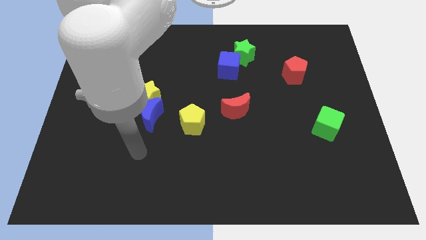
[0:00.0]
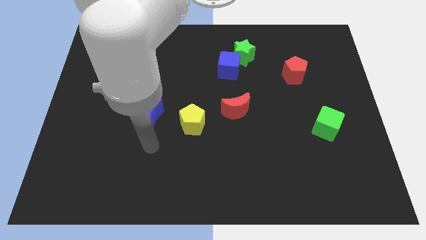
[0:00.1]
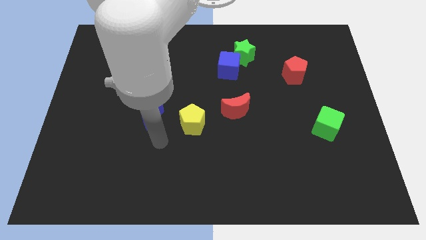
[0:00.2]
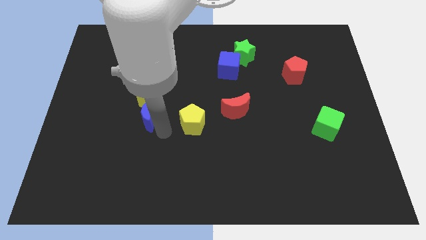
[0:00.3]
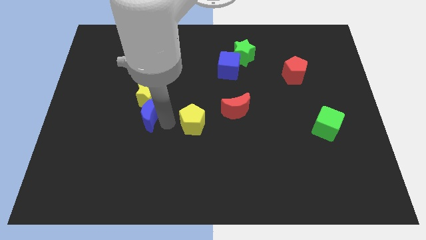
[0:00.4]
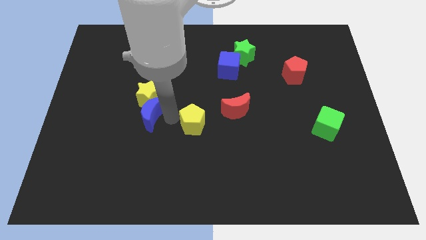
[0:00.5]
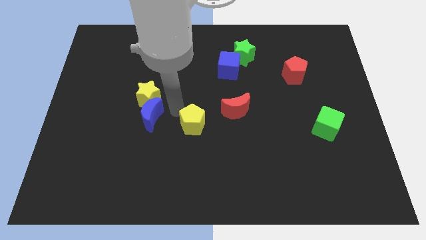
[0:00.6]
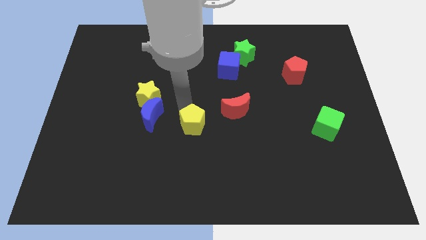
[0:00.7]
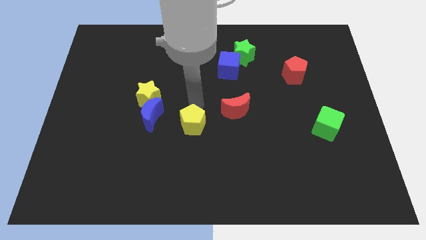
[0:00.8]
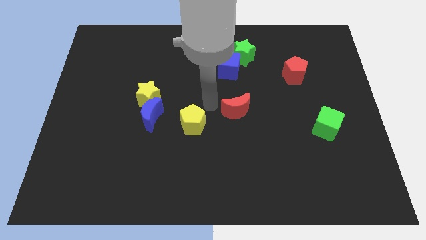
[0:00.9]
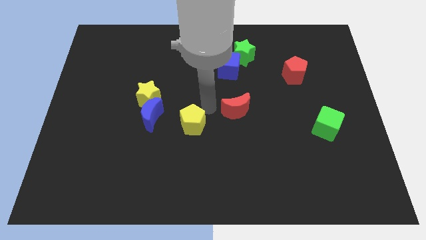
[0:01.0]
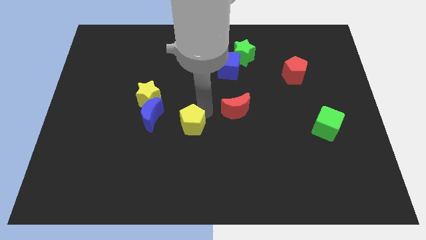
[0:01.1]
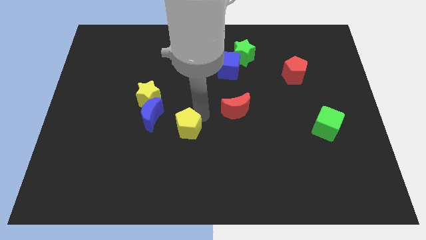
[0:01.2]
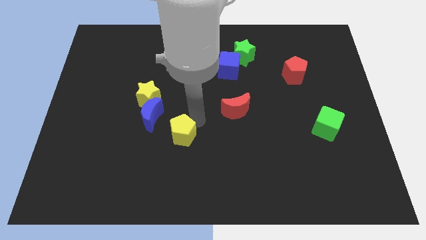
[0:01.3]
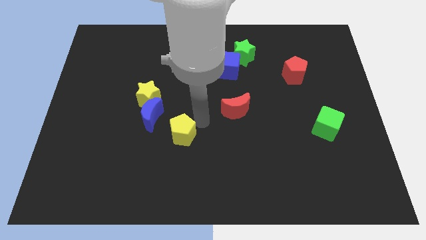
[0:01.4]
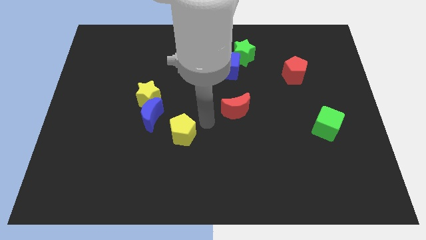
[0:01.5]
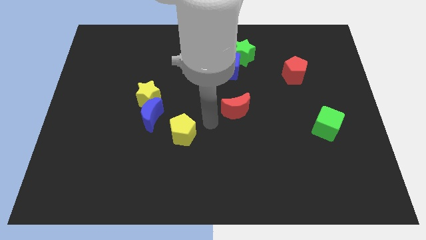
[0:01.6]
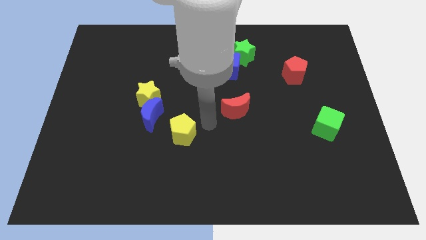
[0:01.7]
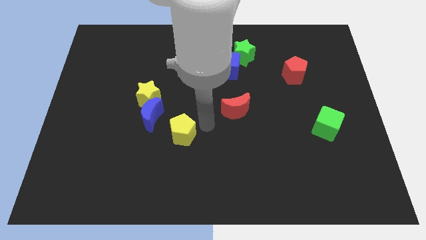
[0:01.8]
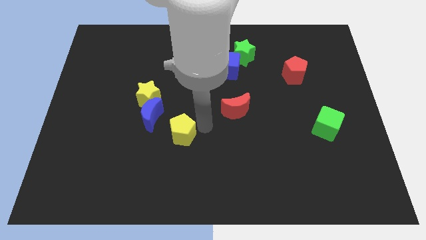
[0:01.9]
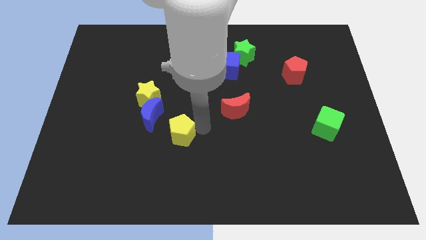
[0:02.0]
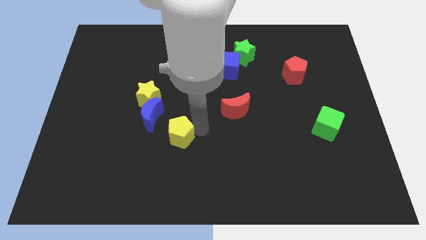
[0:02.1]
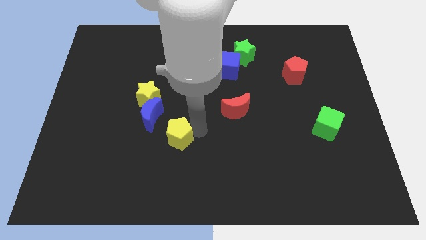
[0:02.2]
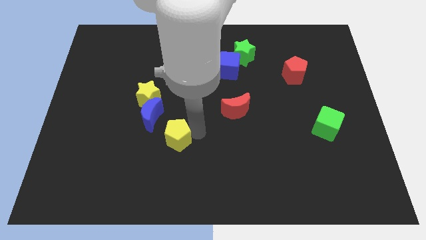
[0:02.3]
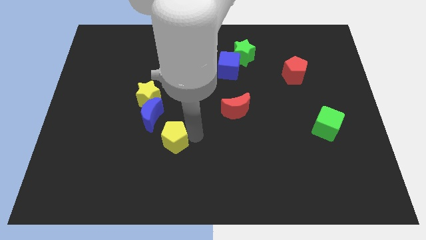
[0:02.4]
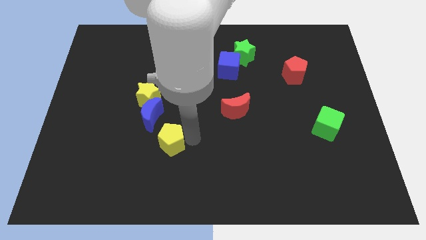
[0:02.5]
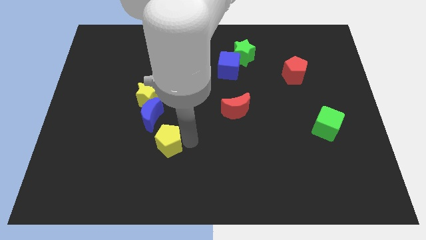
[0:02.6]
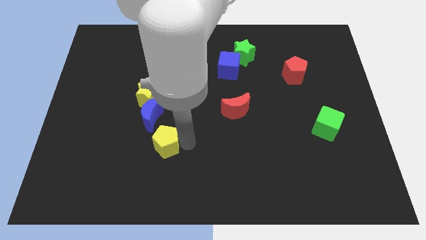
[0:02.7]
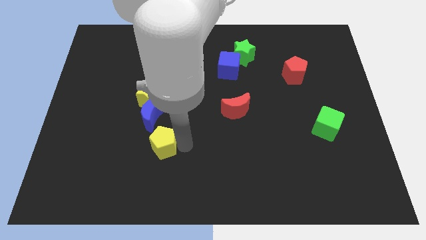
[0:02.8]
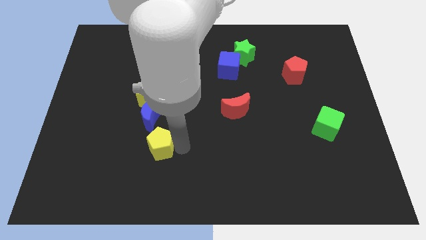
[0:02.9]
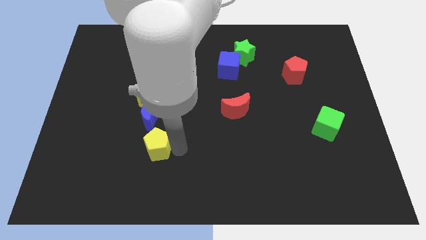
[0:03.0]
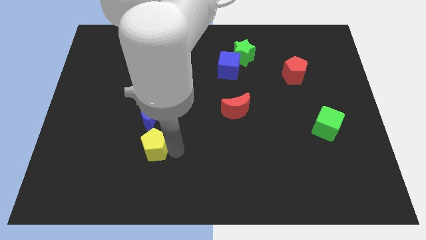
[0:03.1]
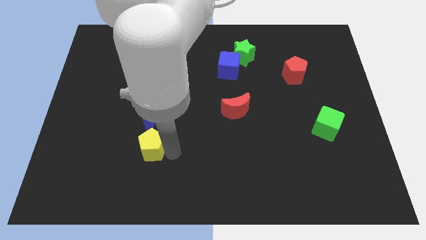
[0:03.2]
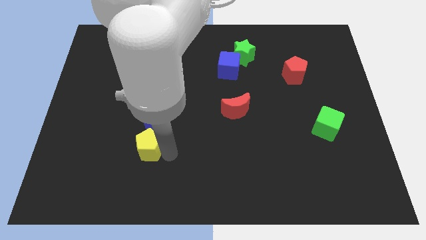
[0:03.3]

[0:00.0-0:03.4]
push the yellow pentagon a little bit to the left

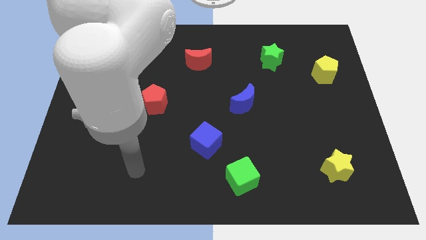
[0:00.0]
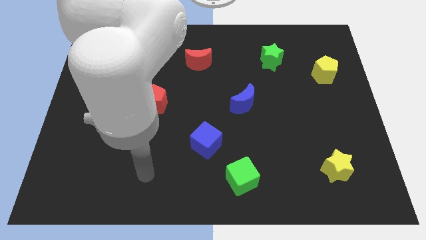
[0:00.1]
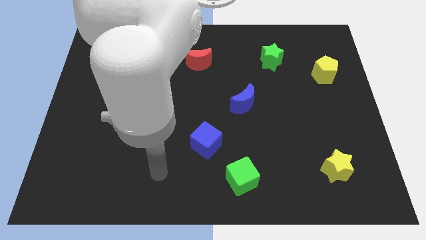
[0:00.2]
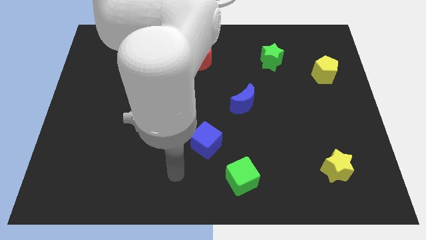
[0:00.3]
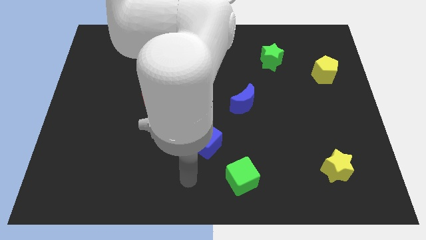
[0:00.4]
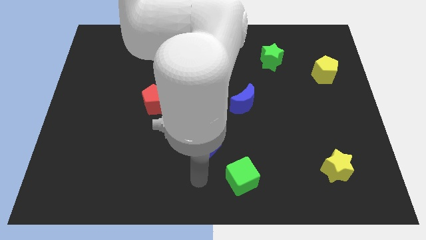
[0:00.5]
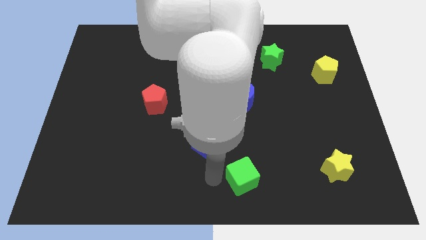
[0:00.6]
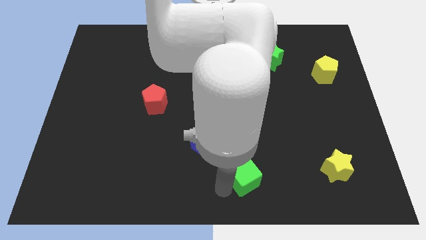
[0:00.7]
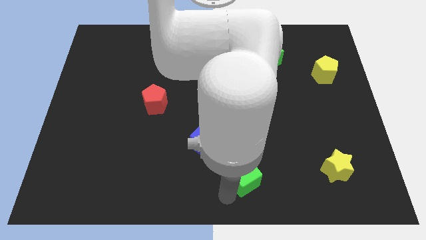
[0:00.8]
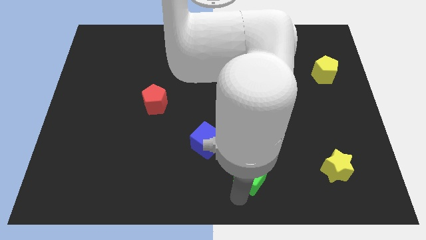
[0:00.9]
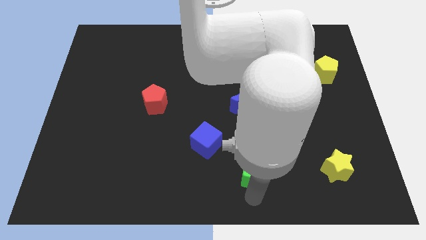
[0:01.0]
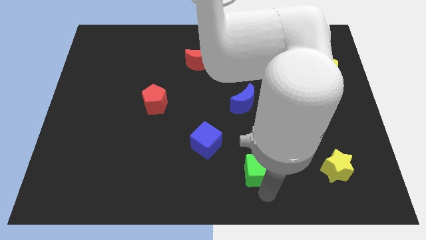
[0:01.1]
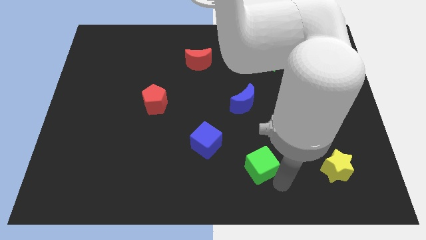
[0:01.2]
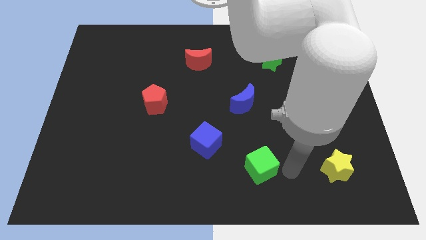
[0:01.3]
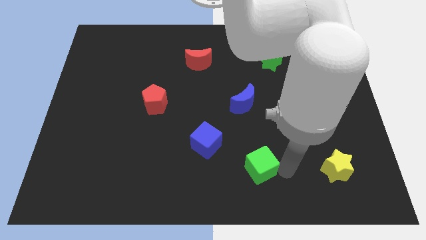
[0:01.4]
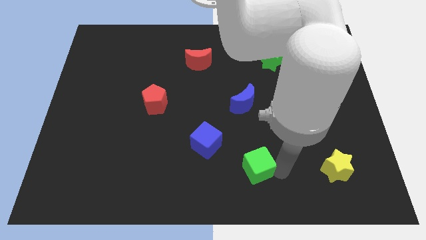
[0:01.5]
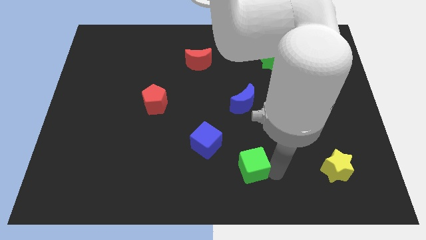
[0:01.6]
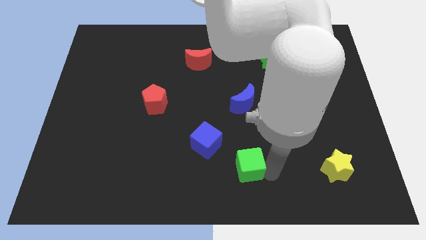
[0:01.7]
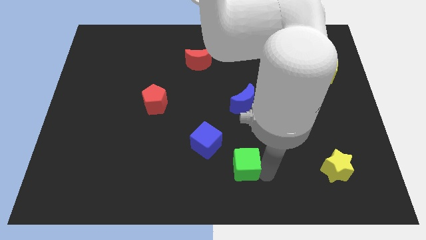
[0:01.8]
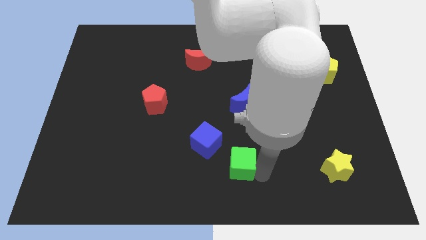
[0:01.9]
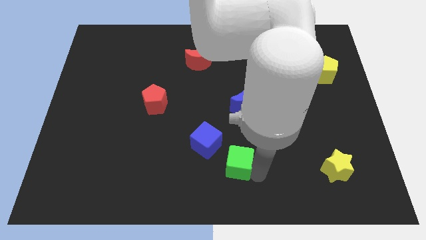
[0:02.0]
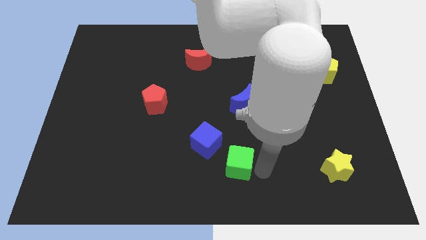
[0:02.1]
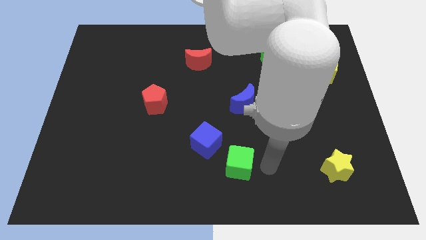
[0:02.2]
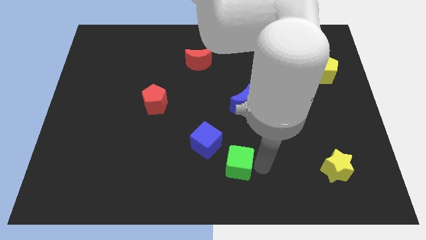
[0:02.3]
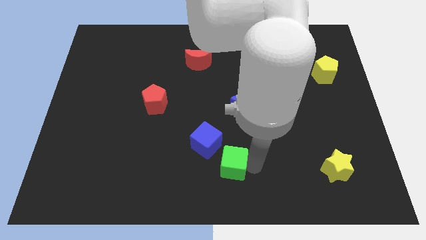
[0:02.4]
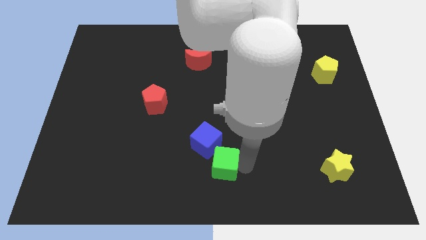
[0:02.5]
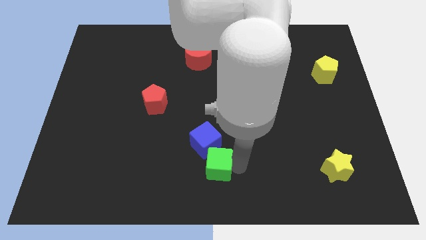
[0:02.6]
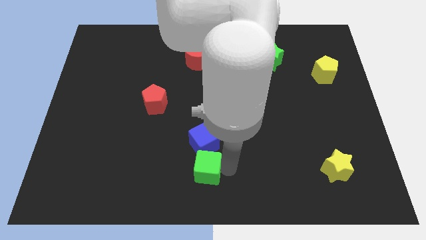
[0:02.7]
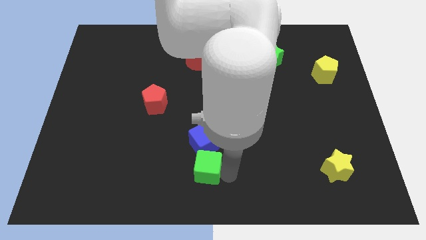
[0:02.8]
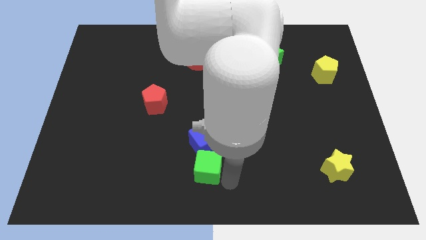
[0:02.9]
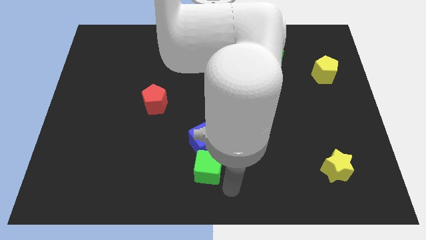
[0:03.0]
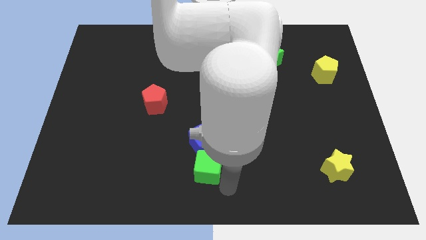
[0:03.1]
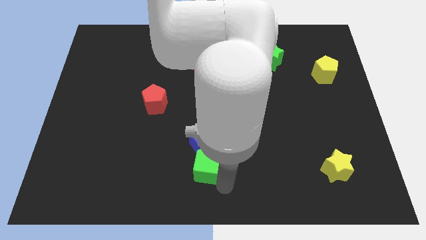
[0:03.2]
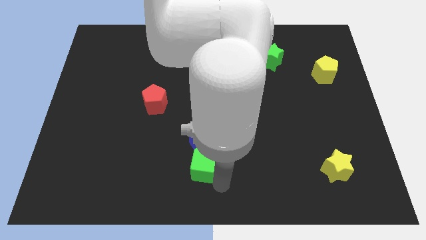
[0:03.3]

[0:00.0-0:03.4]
slide the green cube a bit upwards and left

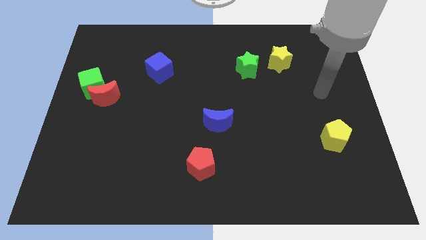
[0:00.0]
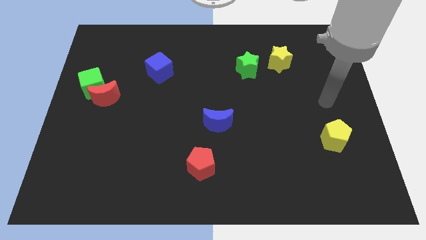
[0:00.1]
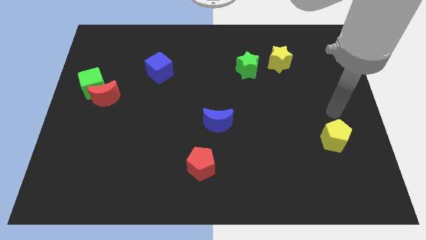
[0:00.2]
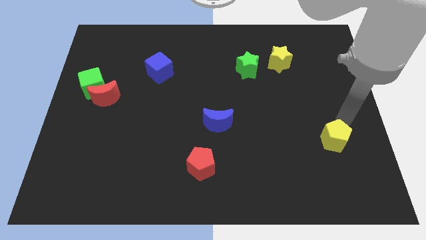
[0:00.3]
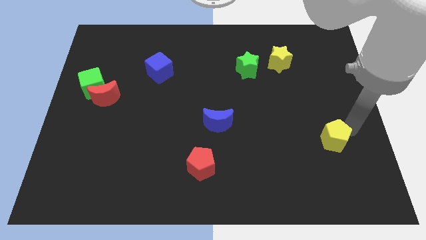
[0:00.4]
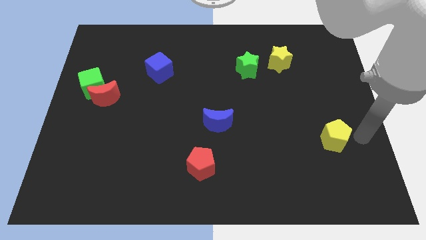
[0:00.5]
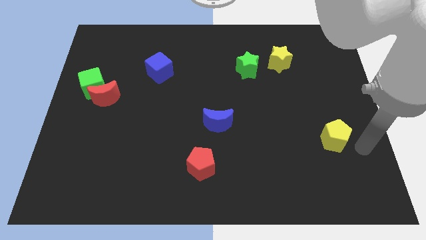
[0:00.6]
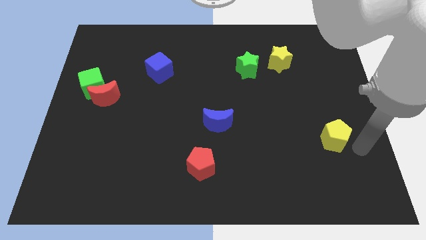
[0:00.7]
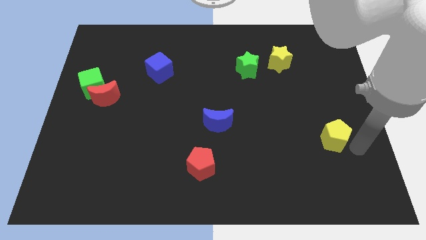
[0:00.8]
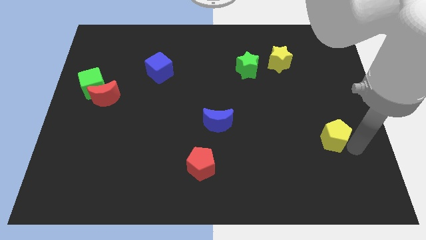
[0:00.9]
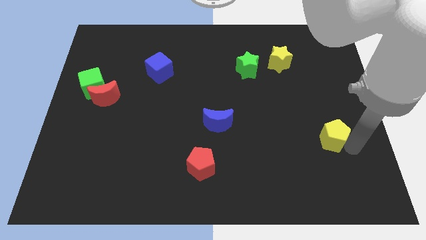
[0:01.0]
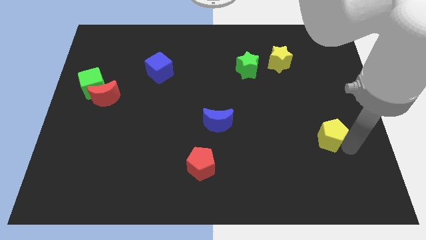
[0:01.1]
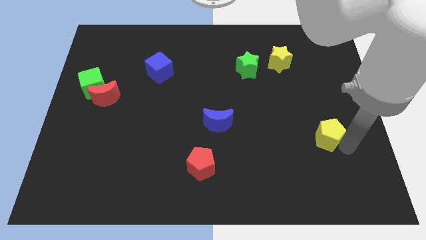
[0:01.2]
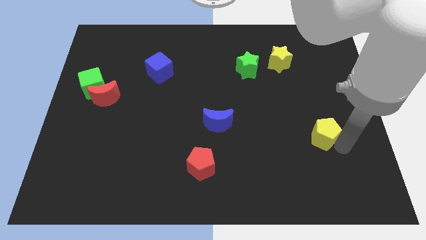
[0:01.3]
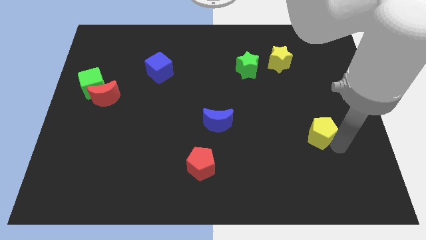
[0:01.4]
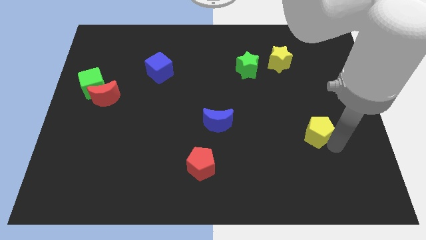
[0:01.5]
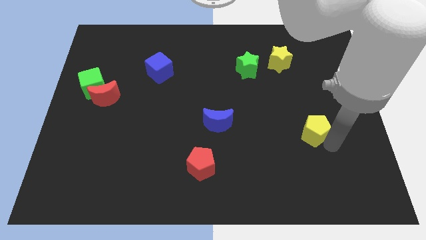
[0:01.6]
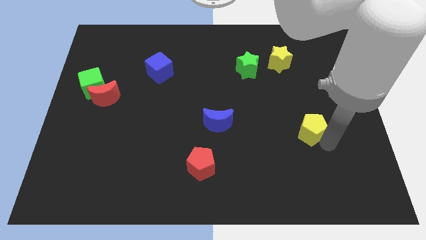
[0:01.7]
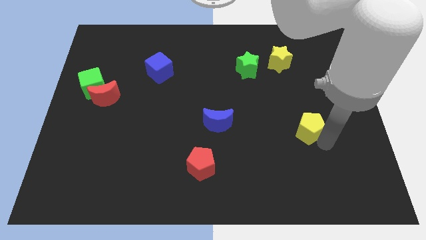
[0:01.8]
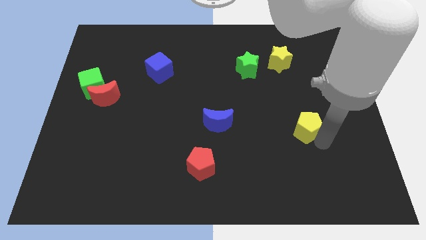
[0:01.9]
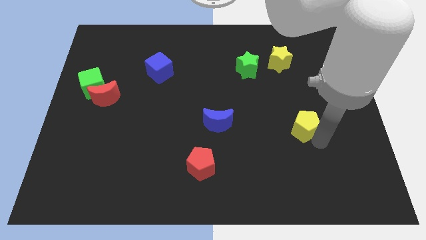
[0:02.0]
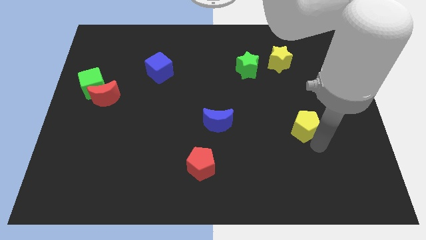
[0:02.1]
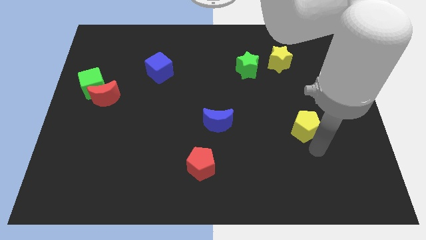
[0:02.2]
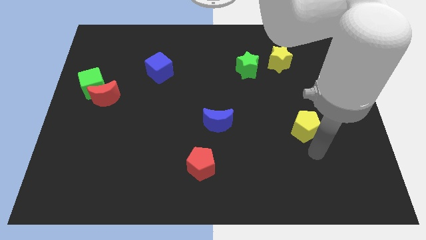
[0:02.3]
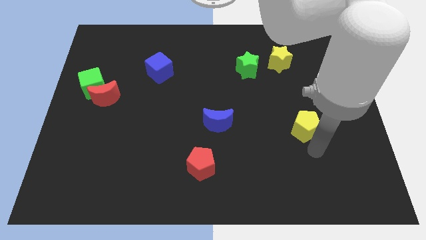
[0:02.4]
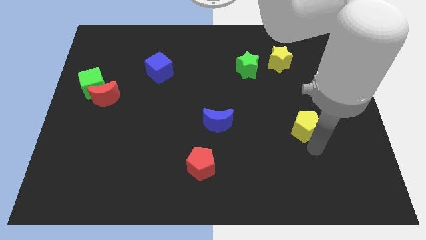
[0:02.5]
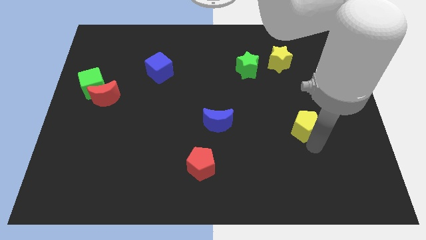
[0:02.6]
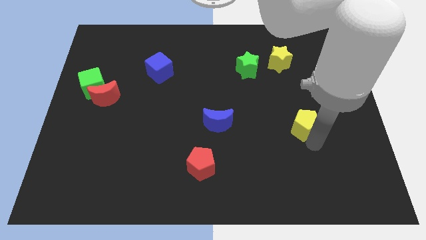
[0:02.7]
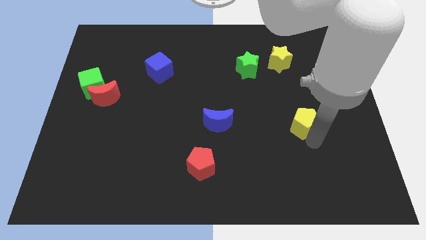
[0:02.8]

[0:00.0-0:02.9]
slide the yellow pentagon up and then to the left somewhat
